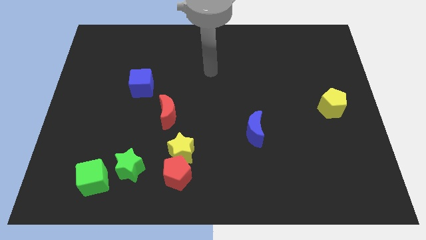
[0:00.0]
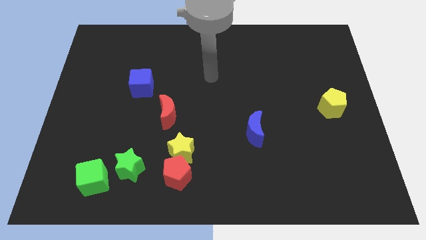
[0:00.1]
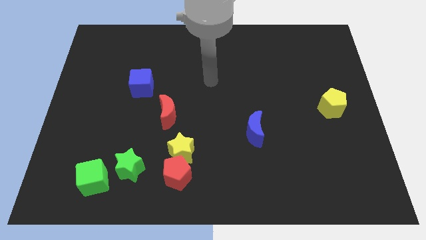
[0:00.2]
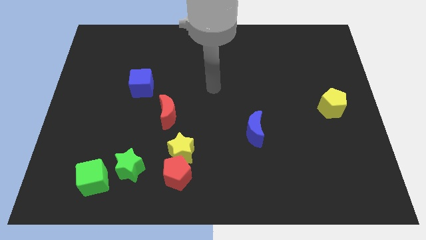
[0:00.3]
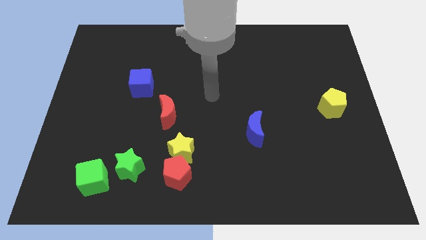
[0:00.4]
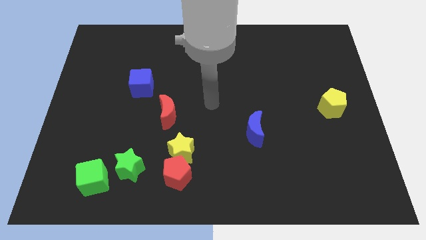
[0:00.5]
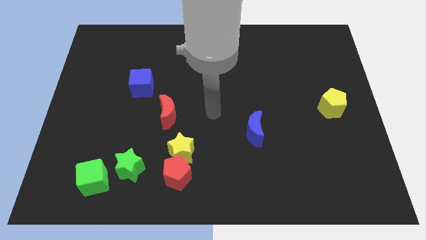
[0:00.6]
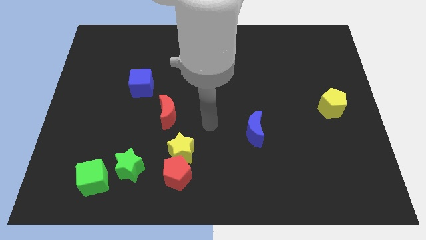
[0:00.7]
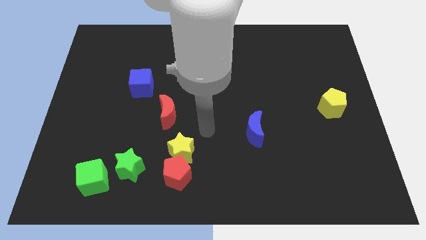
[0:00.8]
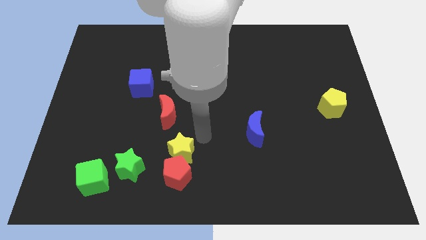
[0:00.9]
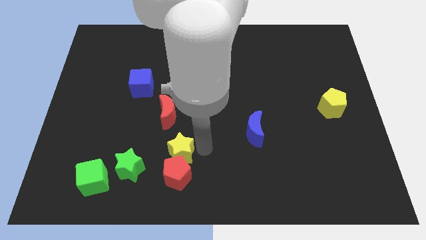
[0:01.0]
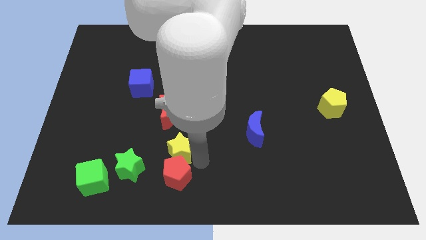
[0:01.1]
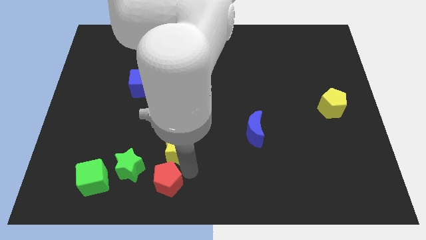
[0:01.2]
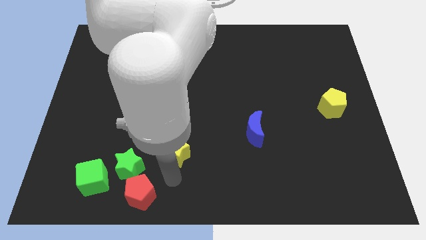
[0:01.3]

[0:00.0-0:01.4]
pull the yellow star apart from the red pentagon

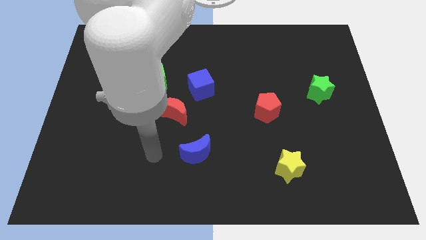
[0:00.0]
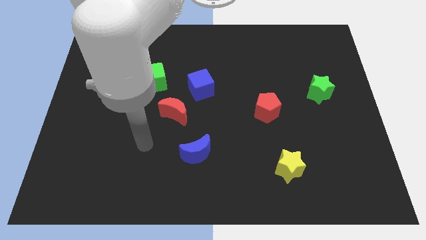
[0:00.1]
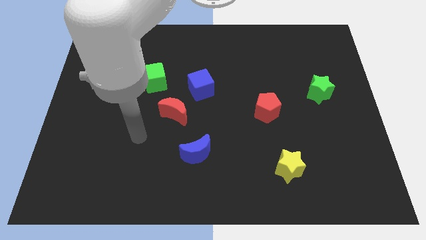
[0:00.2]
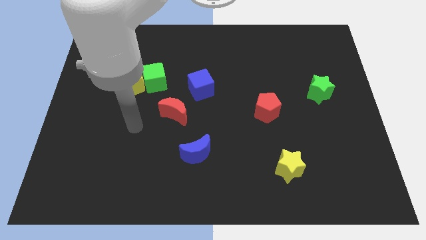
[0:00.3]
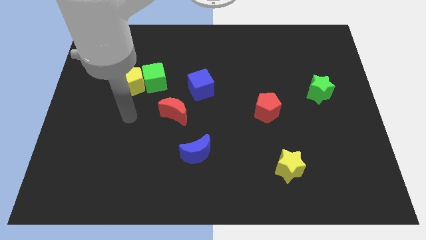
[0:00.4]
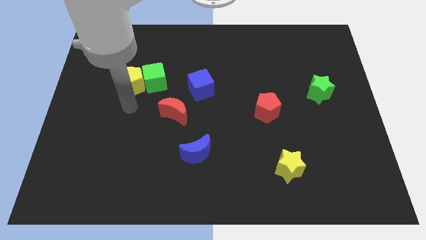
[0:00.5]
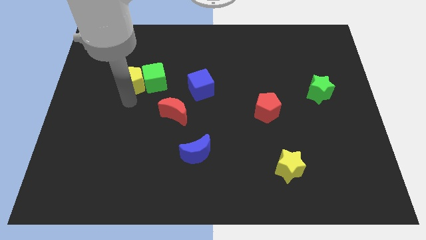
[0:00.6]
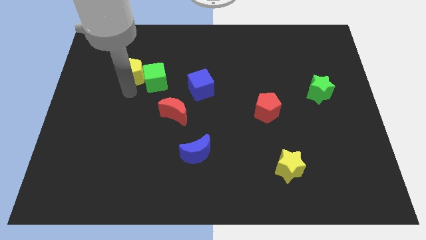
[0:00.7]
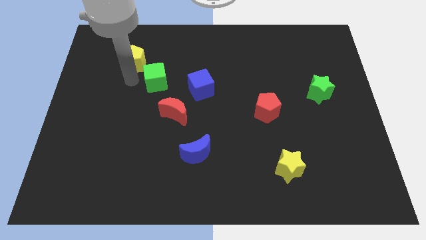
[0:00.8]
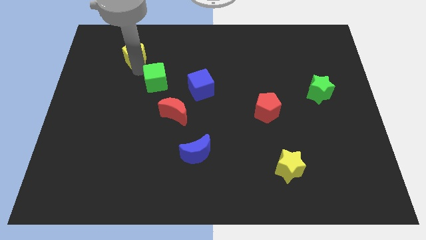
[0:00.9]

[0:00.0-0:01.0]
pull the green cube apart from the yellow pentagon

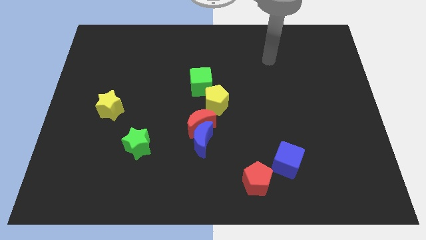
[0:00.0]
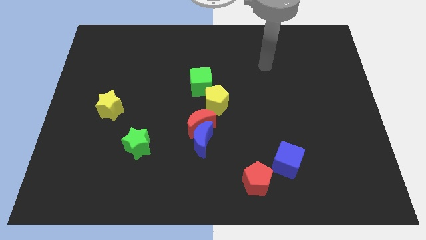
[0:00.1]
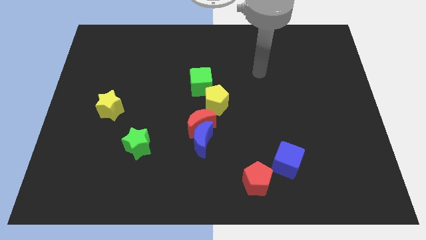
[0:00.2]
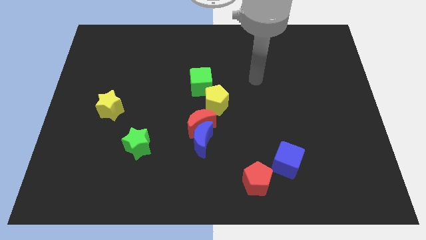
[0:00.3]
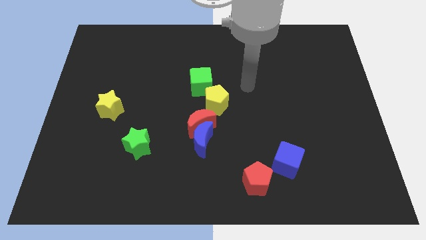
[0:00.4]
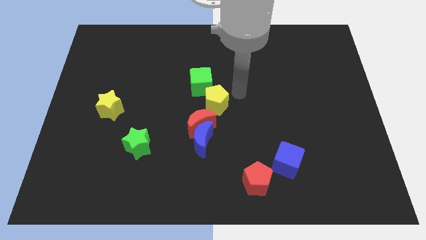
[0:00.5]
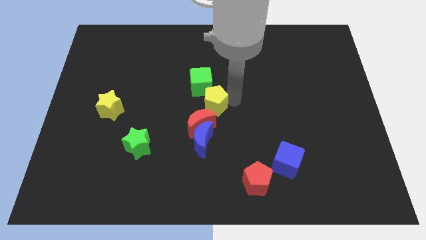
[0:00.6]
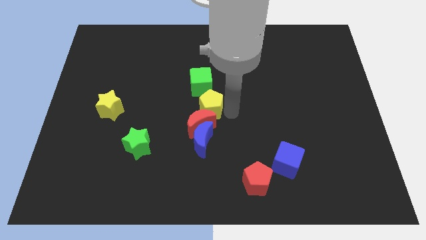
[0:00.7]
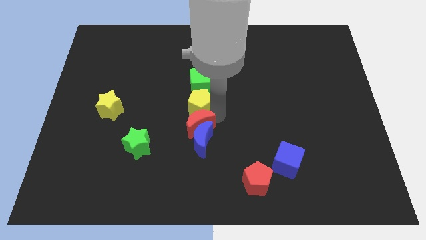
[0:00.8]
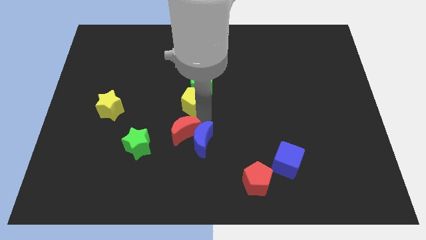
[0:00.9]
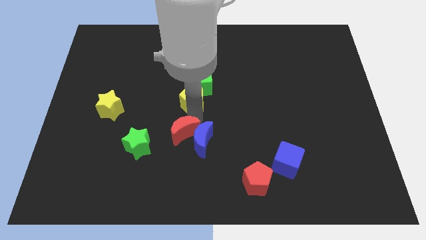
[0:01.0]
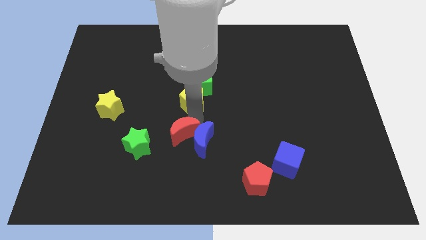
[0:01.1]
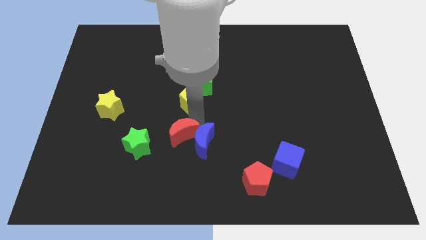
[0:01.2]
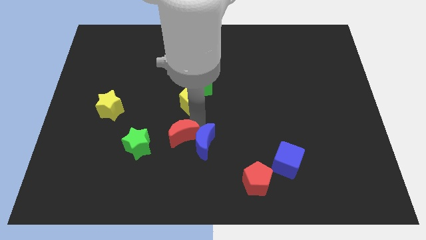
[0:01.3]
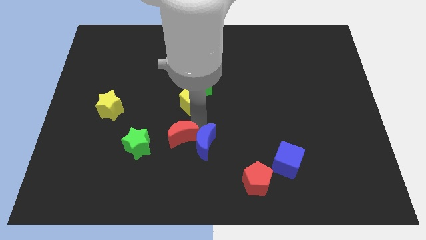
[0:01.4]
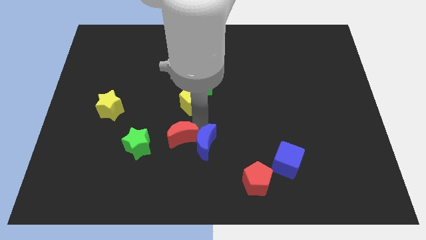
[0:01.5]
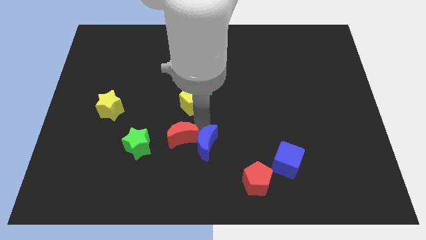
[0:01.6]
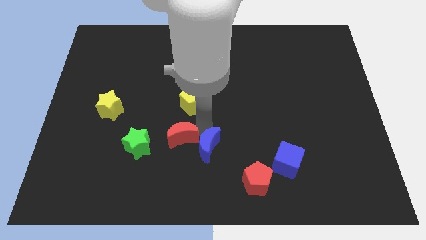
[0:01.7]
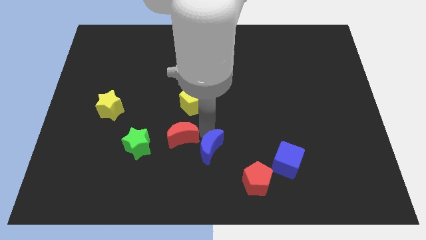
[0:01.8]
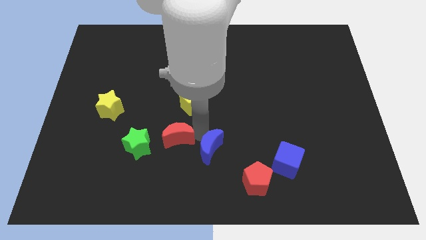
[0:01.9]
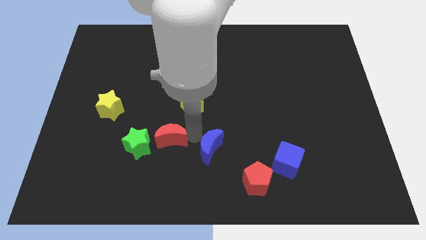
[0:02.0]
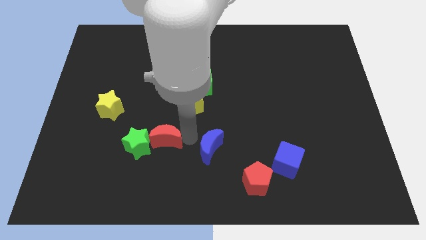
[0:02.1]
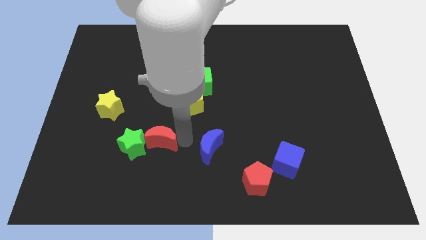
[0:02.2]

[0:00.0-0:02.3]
pull the blue moon apart from the red moon

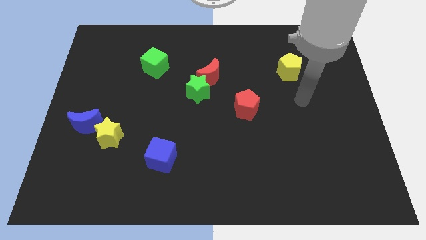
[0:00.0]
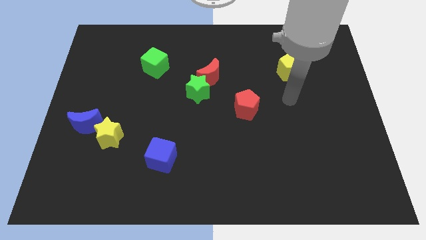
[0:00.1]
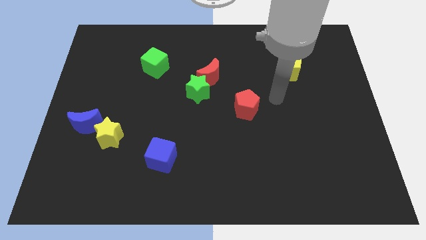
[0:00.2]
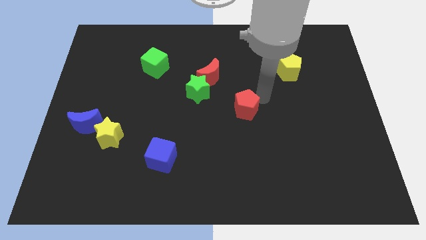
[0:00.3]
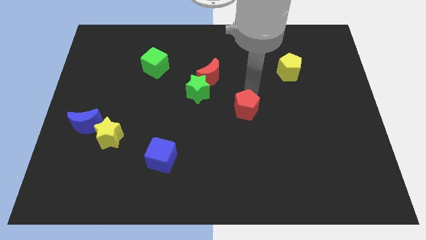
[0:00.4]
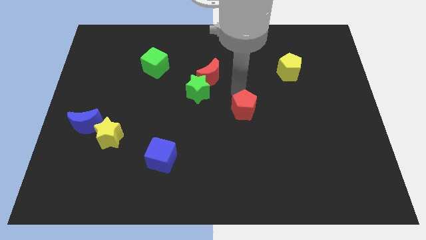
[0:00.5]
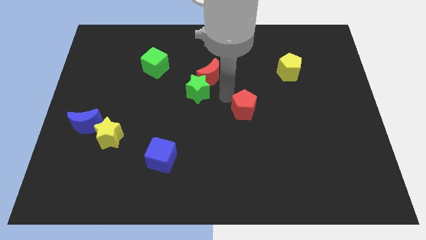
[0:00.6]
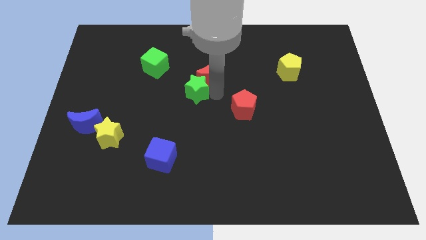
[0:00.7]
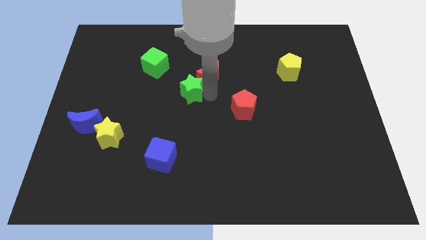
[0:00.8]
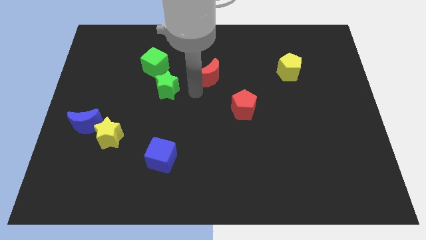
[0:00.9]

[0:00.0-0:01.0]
move the red moon away from the green star

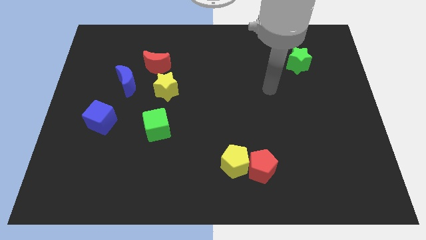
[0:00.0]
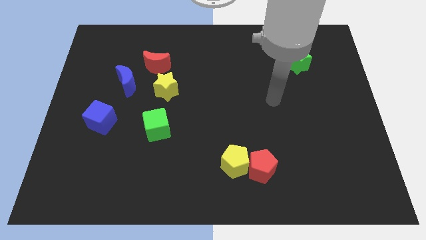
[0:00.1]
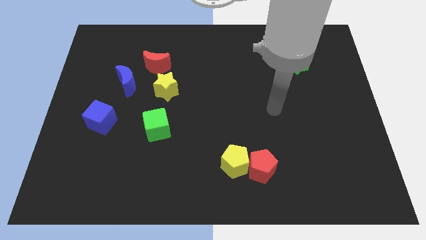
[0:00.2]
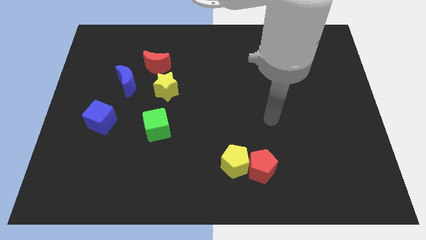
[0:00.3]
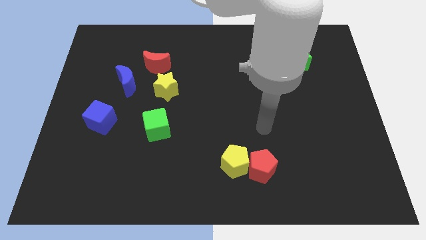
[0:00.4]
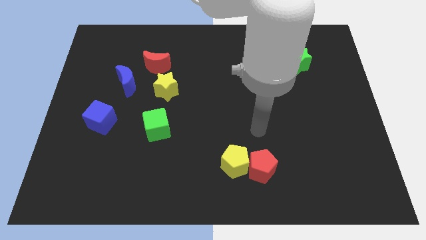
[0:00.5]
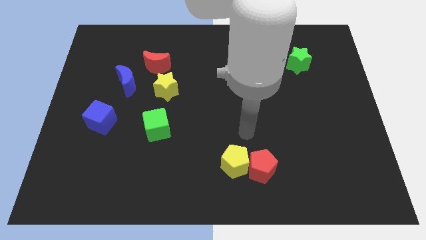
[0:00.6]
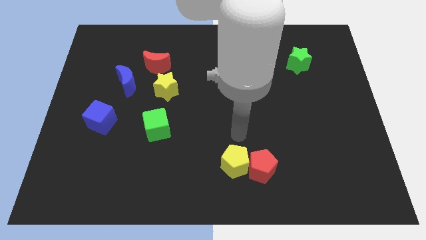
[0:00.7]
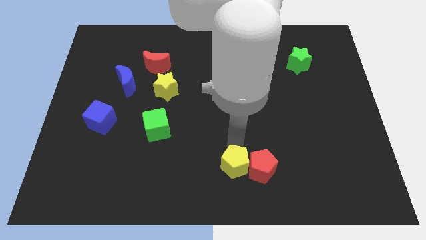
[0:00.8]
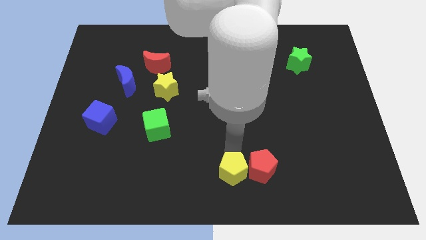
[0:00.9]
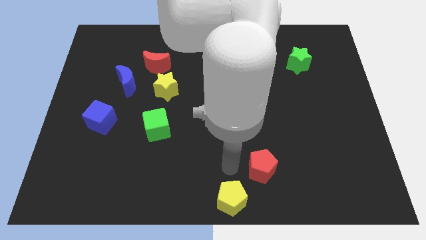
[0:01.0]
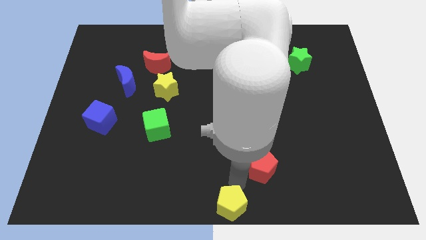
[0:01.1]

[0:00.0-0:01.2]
separate the red pentagon from the yellow pentagon

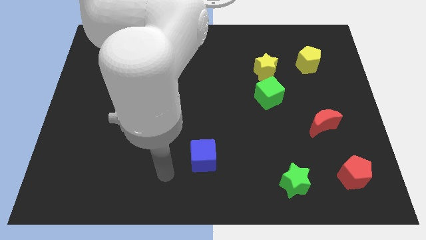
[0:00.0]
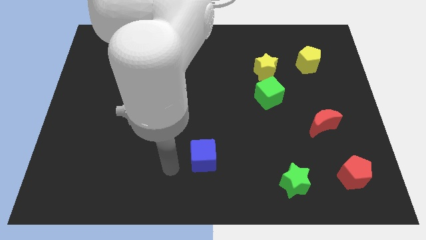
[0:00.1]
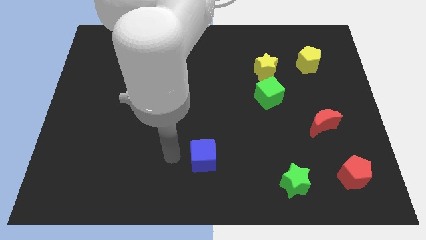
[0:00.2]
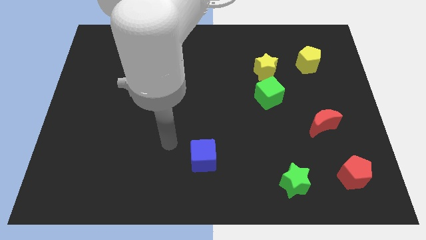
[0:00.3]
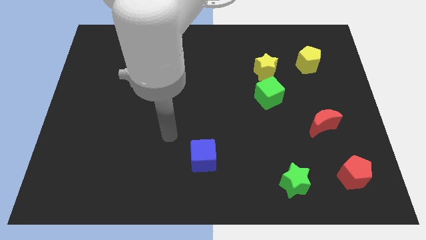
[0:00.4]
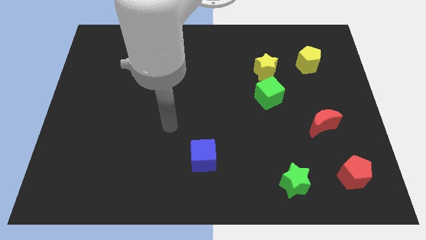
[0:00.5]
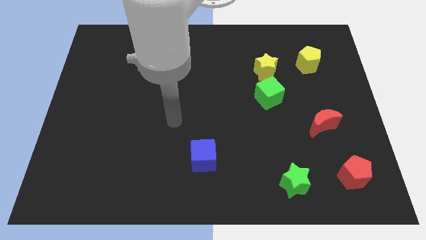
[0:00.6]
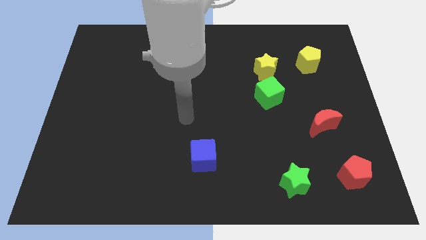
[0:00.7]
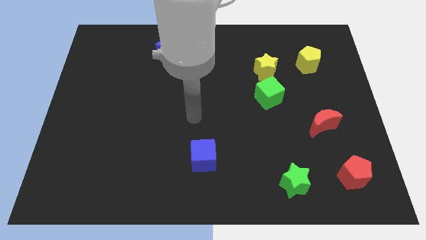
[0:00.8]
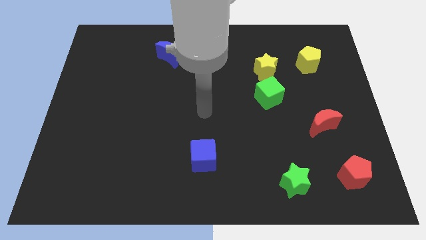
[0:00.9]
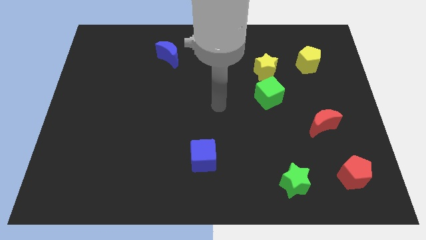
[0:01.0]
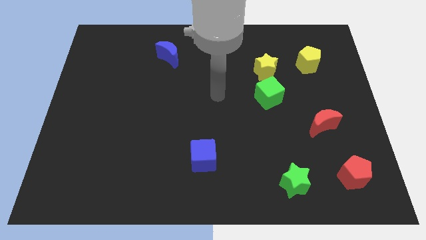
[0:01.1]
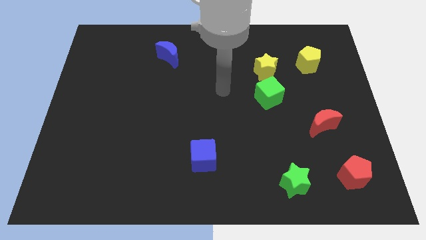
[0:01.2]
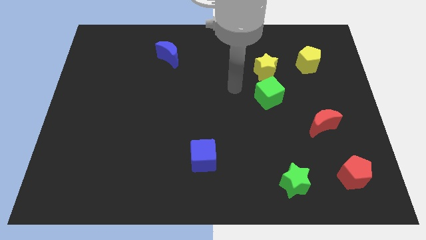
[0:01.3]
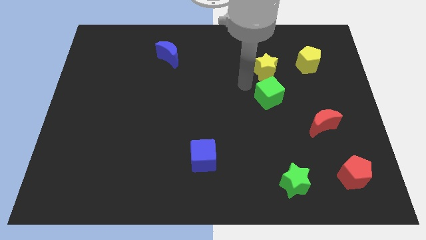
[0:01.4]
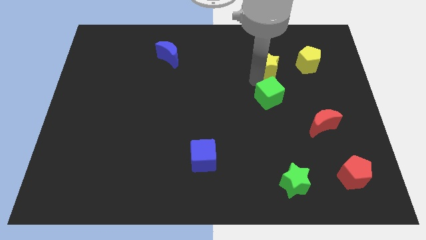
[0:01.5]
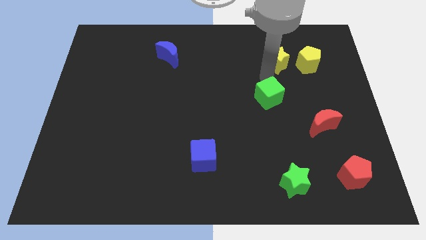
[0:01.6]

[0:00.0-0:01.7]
move the green cube away from the yellow star

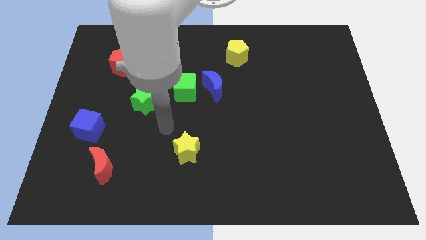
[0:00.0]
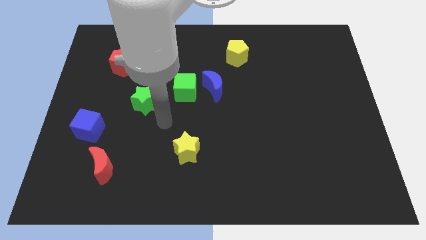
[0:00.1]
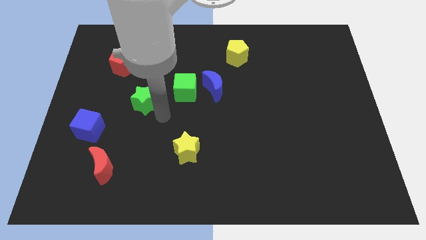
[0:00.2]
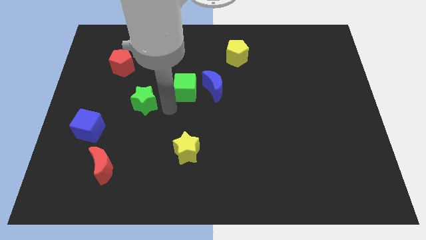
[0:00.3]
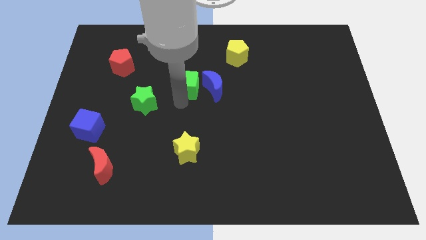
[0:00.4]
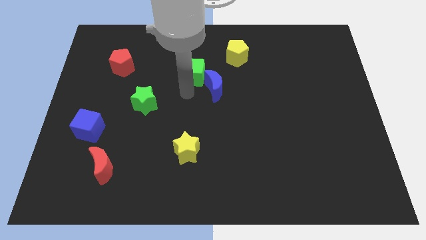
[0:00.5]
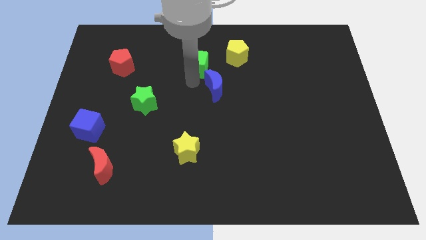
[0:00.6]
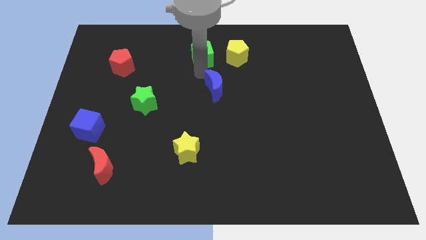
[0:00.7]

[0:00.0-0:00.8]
pull the blue moon apart from the green cube
